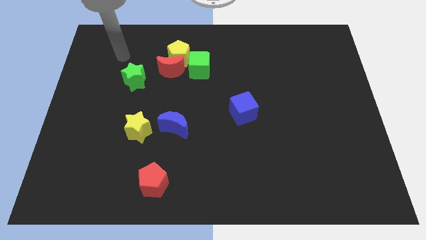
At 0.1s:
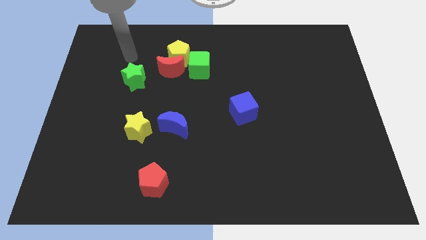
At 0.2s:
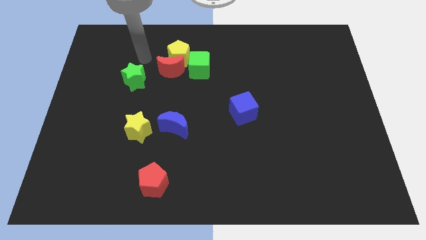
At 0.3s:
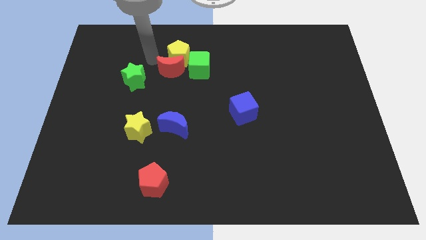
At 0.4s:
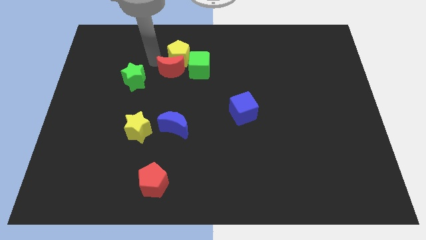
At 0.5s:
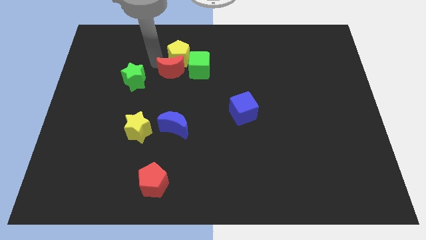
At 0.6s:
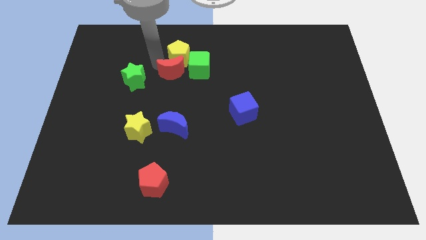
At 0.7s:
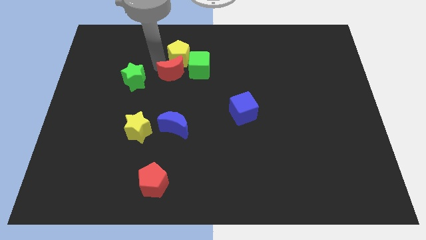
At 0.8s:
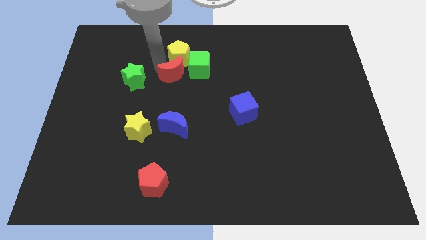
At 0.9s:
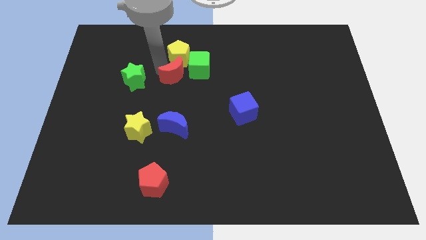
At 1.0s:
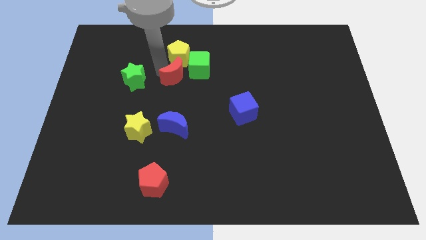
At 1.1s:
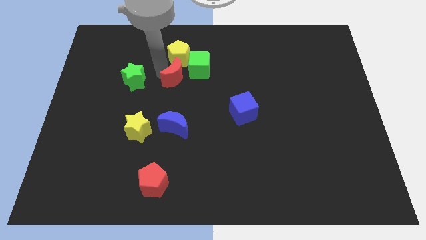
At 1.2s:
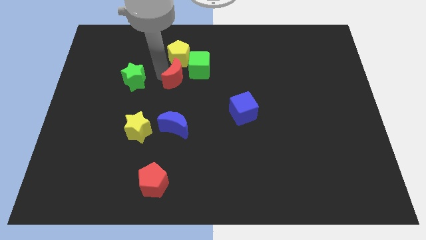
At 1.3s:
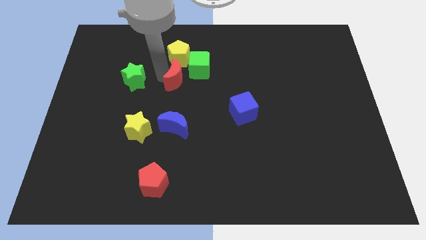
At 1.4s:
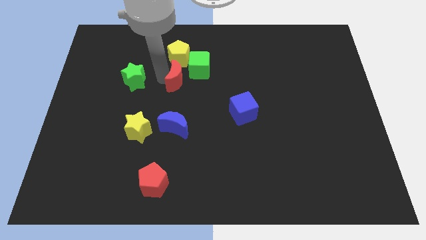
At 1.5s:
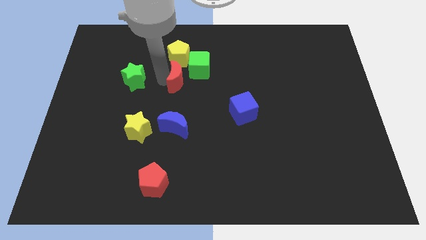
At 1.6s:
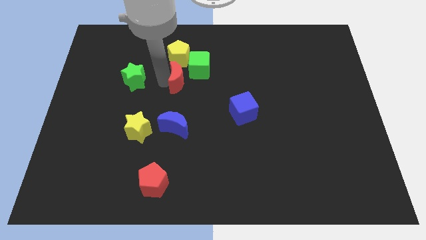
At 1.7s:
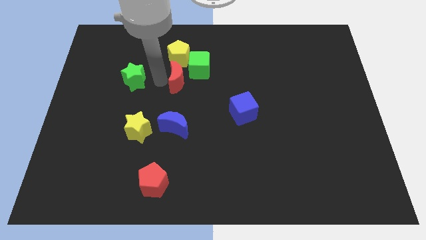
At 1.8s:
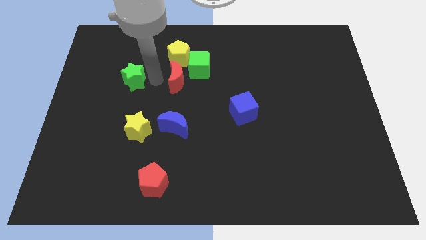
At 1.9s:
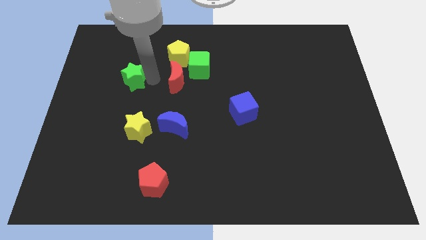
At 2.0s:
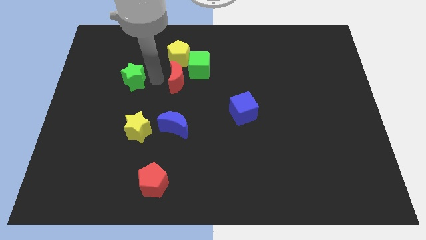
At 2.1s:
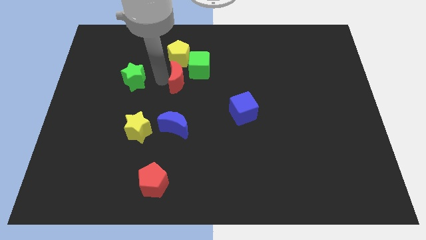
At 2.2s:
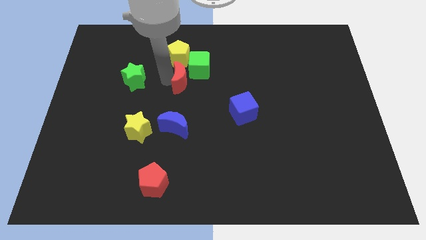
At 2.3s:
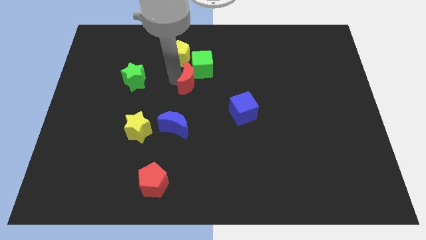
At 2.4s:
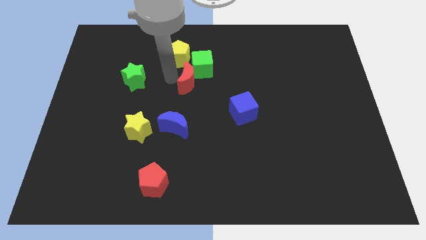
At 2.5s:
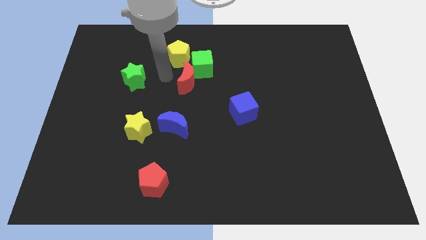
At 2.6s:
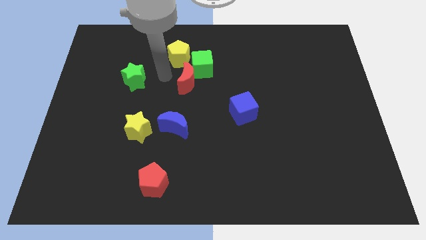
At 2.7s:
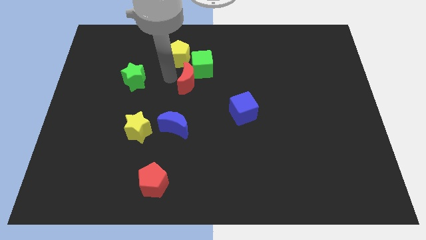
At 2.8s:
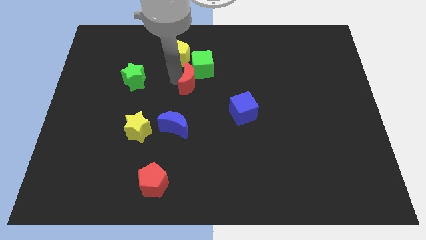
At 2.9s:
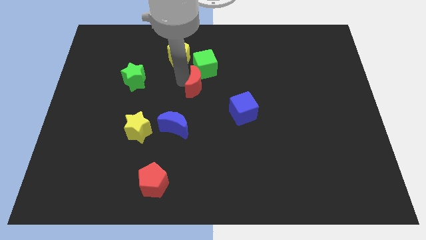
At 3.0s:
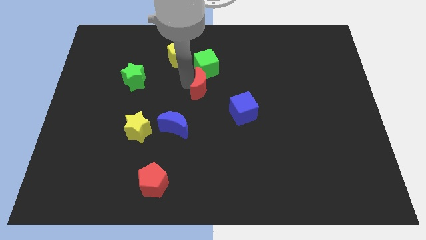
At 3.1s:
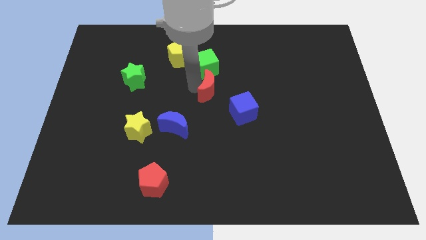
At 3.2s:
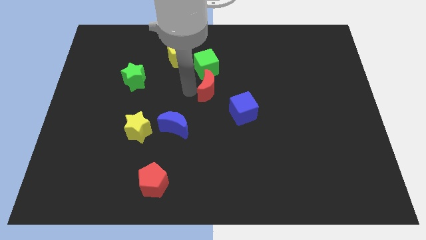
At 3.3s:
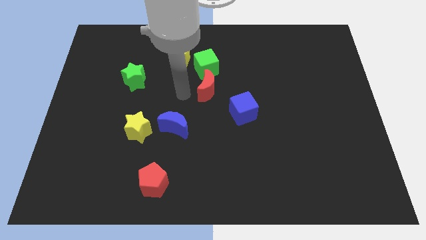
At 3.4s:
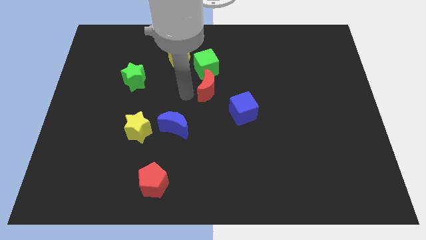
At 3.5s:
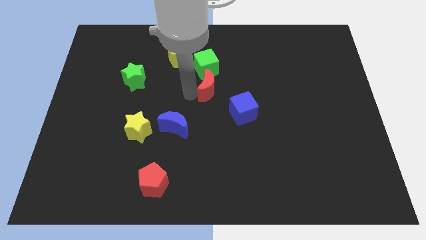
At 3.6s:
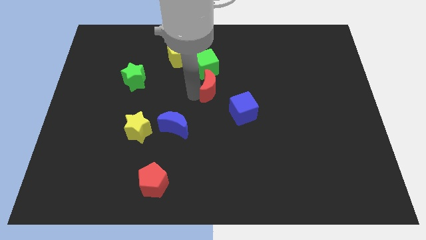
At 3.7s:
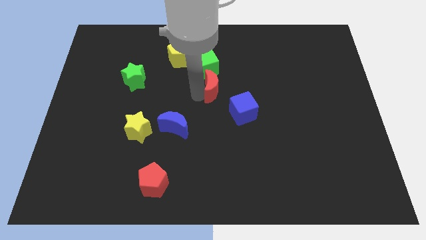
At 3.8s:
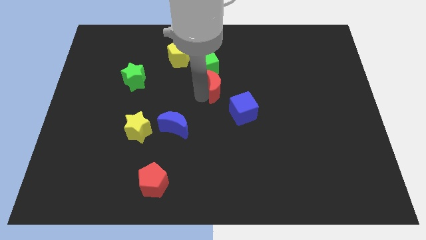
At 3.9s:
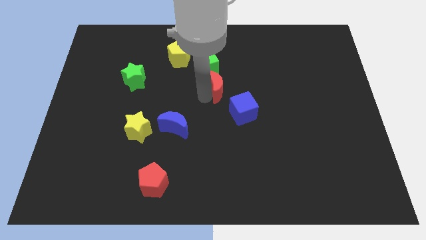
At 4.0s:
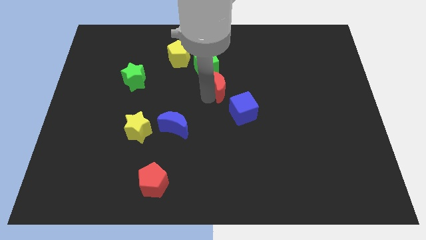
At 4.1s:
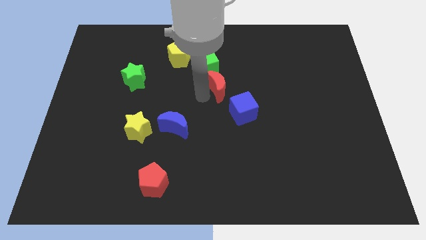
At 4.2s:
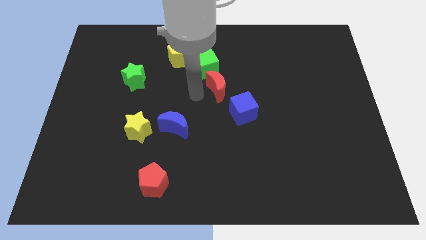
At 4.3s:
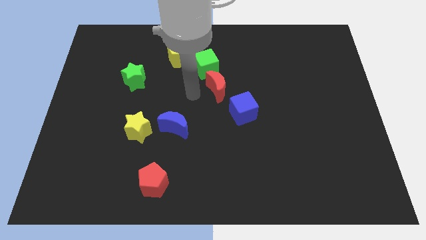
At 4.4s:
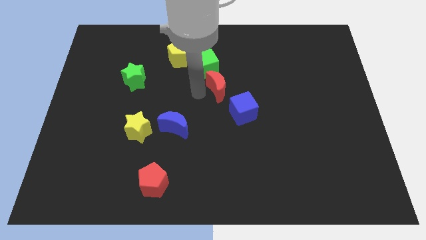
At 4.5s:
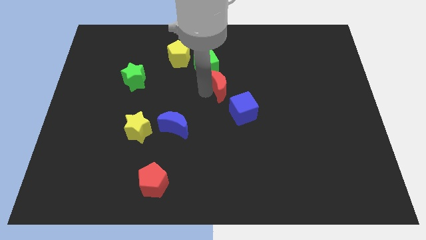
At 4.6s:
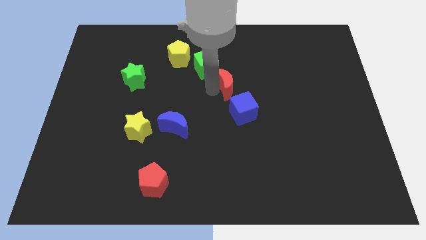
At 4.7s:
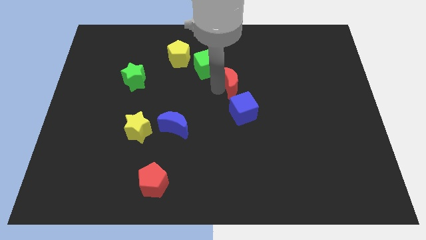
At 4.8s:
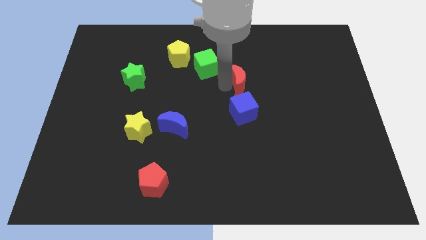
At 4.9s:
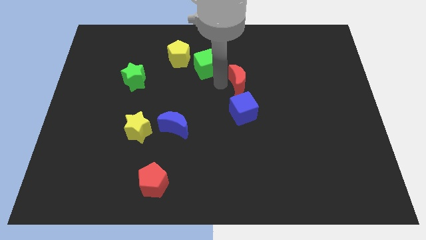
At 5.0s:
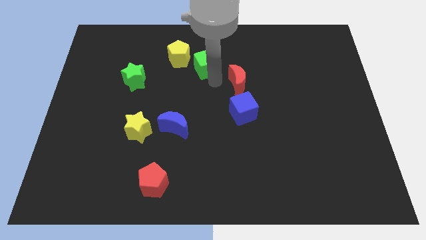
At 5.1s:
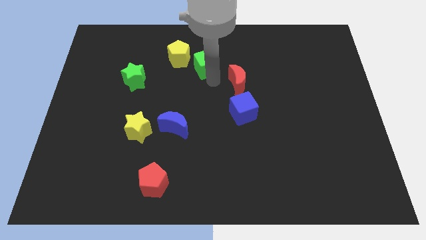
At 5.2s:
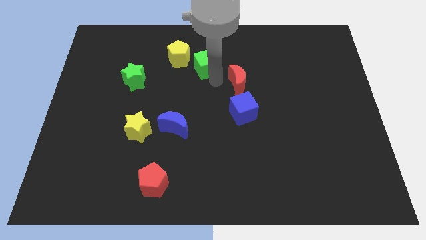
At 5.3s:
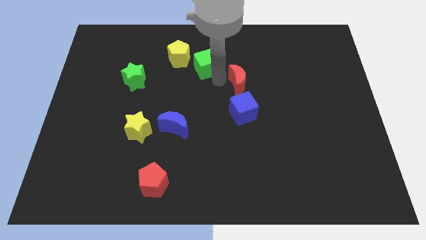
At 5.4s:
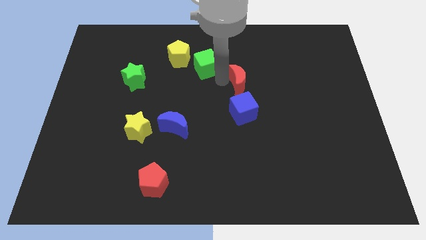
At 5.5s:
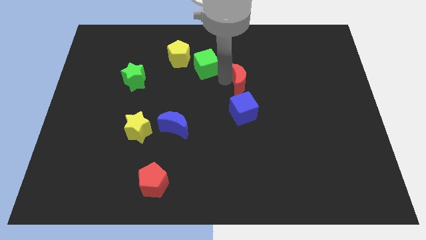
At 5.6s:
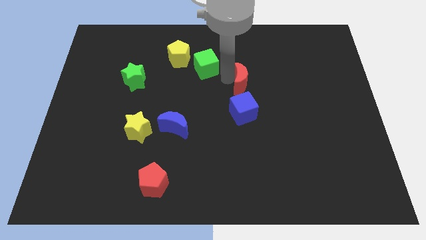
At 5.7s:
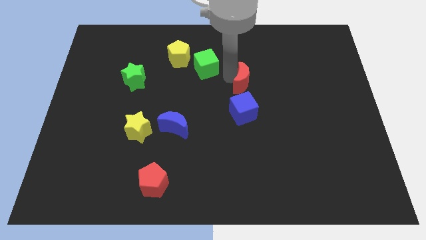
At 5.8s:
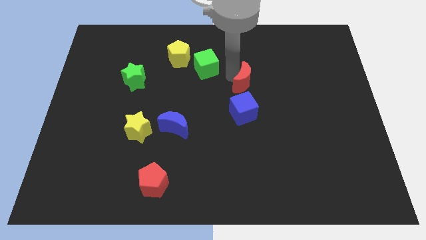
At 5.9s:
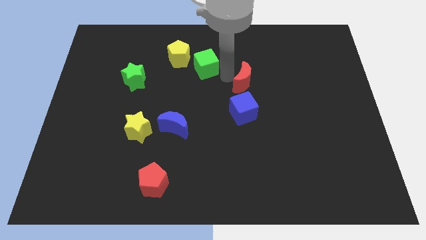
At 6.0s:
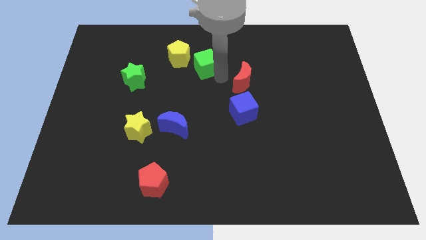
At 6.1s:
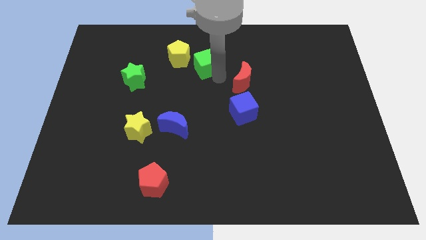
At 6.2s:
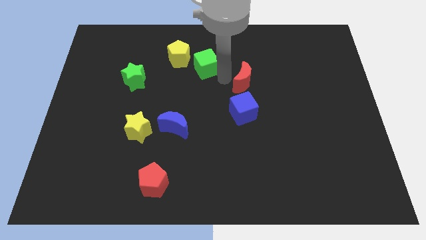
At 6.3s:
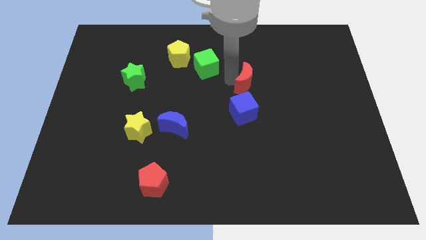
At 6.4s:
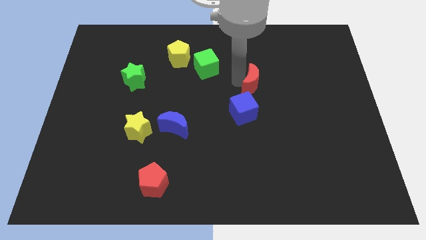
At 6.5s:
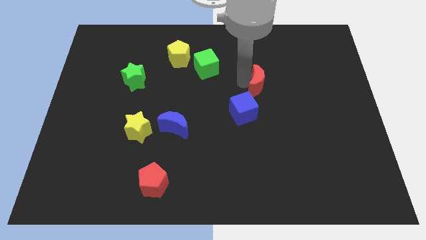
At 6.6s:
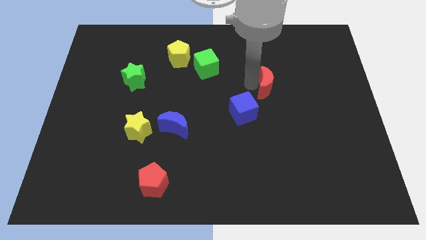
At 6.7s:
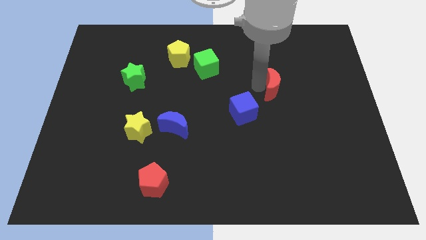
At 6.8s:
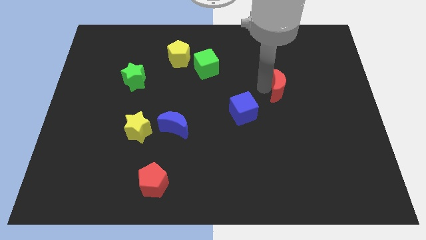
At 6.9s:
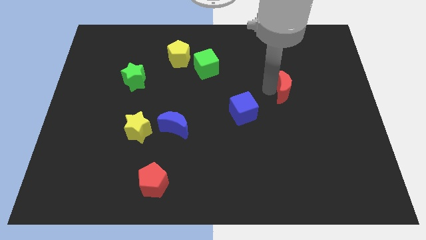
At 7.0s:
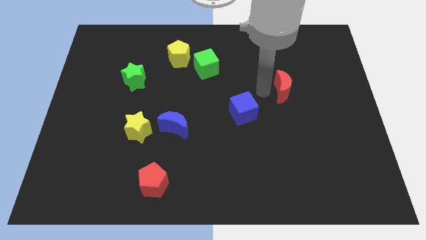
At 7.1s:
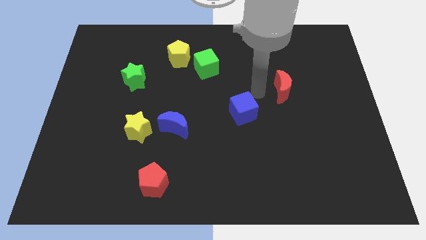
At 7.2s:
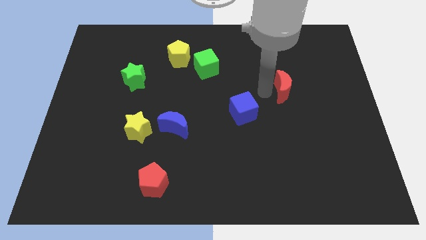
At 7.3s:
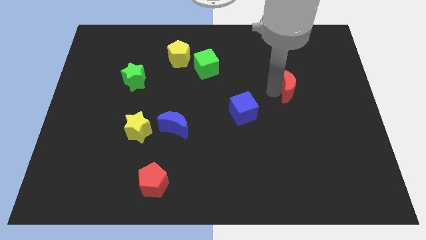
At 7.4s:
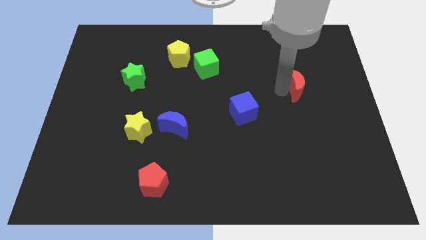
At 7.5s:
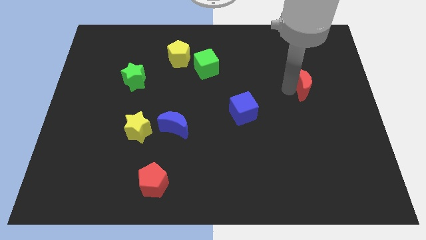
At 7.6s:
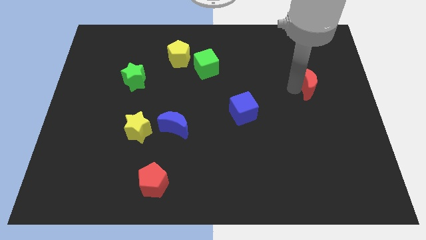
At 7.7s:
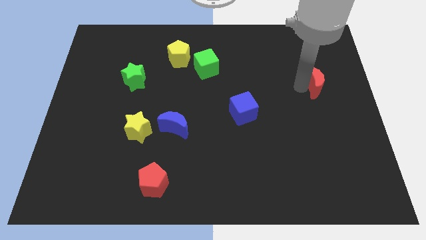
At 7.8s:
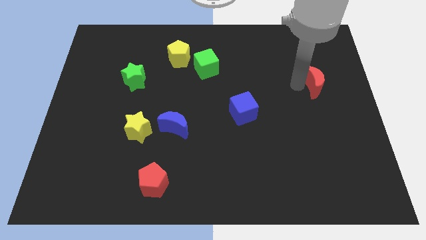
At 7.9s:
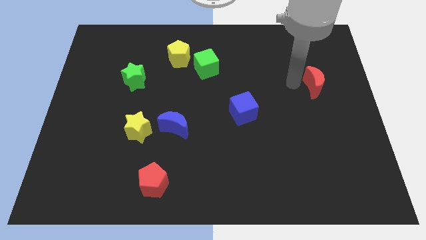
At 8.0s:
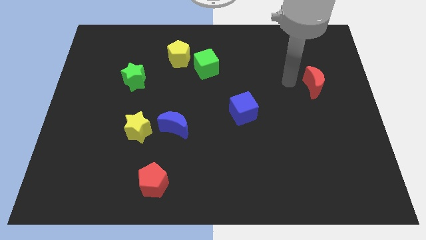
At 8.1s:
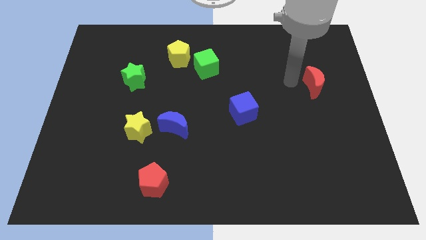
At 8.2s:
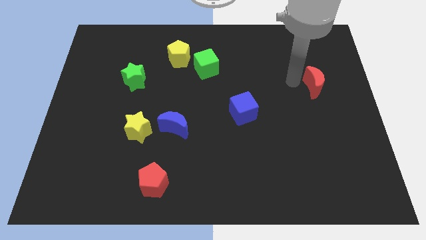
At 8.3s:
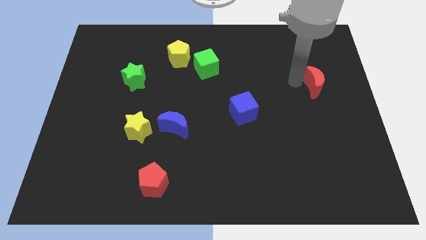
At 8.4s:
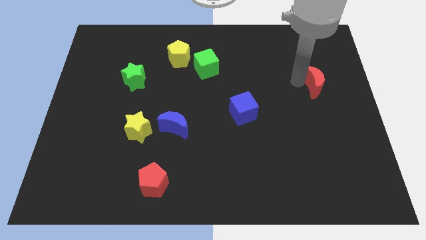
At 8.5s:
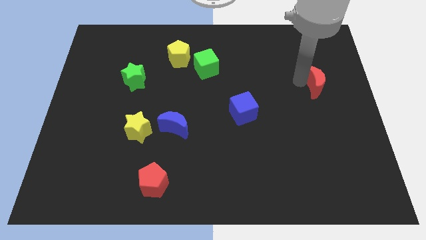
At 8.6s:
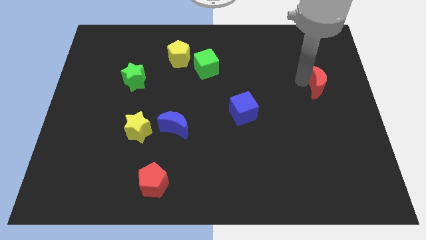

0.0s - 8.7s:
put the red moon to the right side of the board
